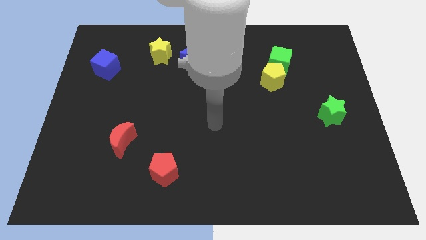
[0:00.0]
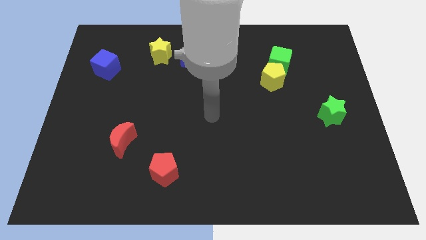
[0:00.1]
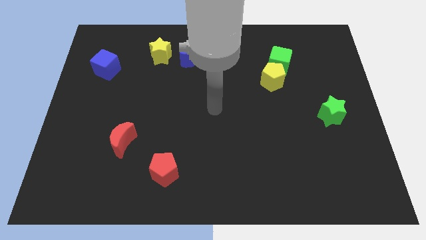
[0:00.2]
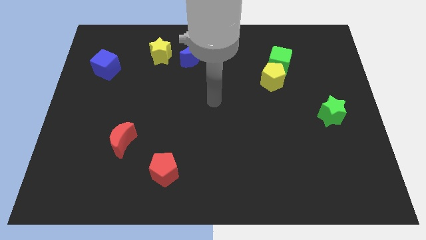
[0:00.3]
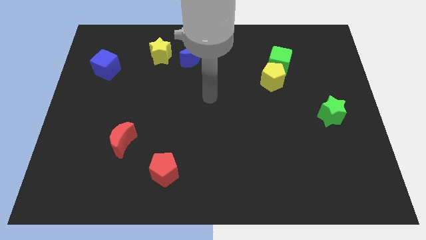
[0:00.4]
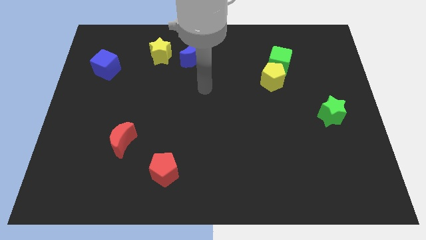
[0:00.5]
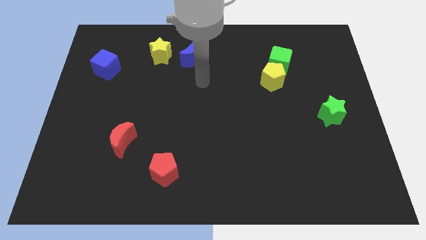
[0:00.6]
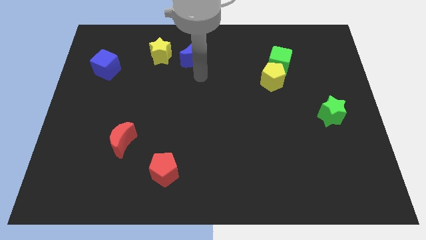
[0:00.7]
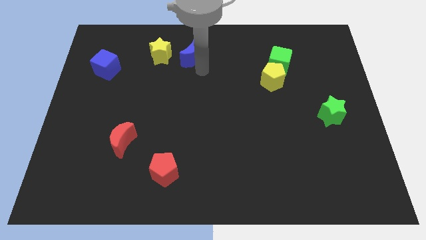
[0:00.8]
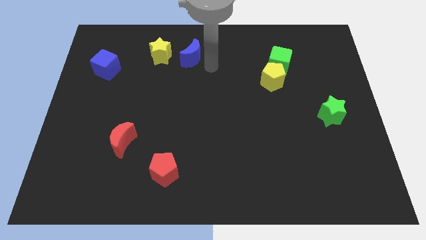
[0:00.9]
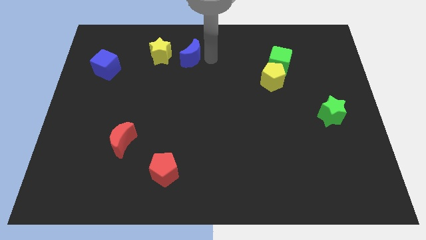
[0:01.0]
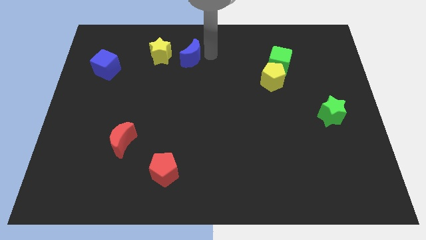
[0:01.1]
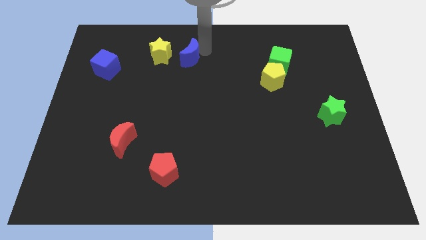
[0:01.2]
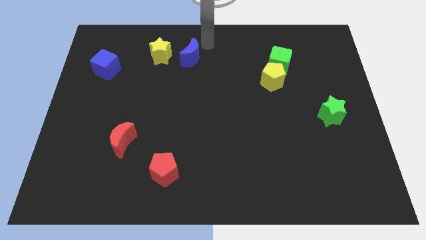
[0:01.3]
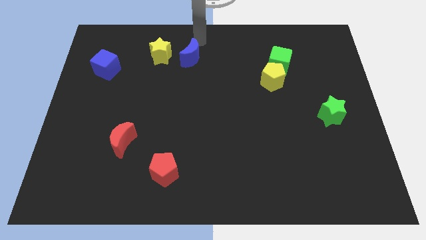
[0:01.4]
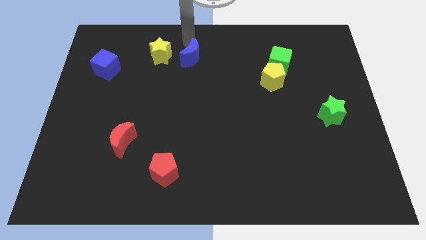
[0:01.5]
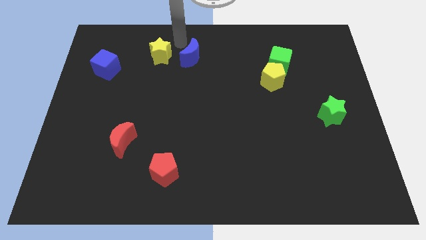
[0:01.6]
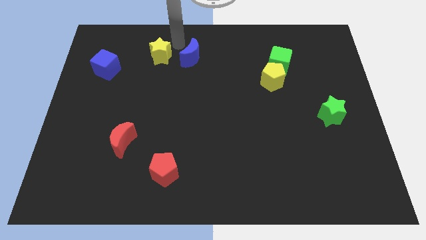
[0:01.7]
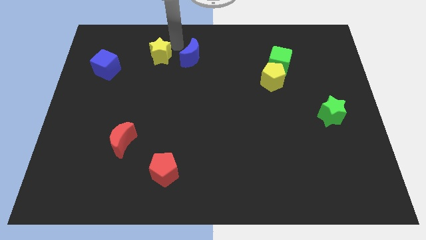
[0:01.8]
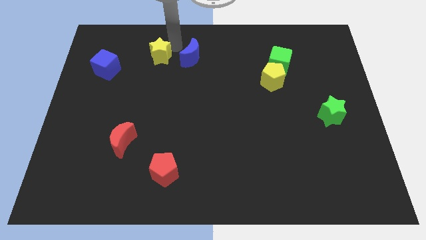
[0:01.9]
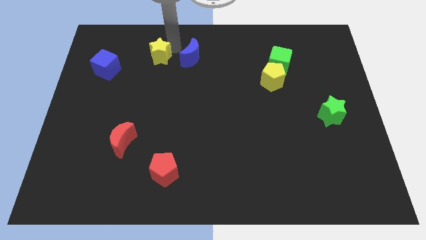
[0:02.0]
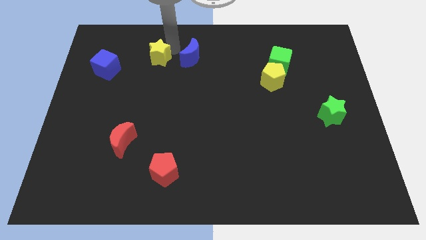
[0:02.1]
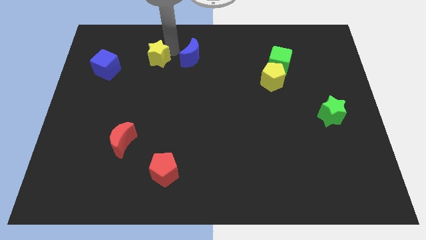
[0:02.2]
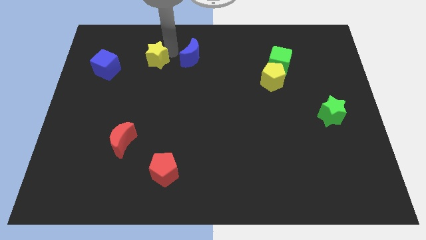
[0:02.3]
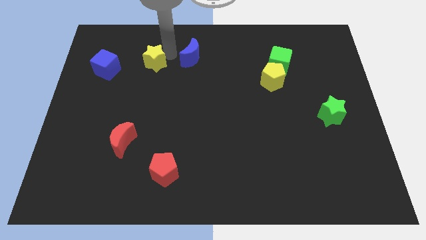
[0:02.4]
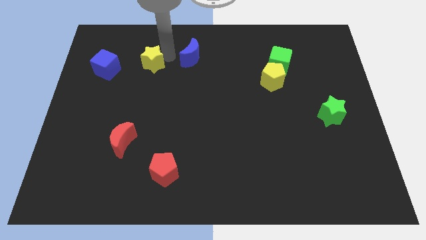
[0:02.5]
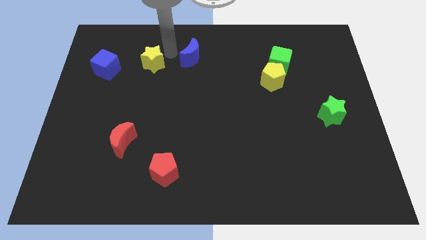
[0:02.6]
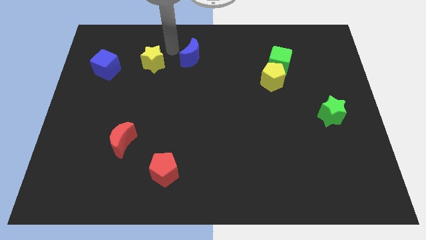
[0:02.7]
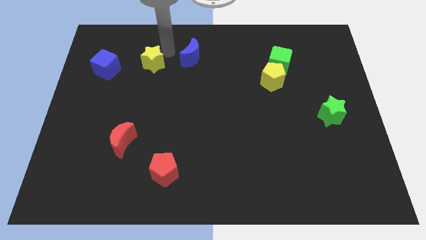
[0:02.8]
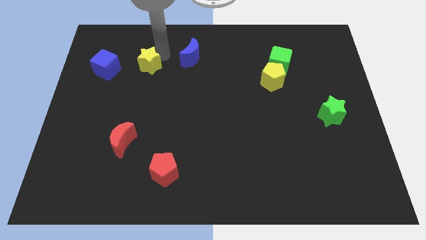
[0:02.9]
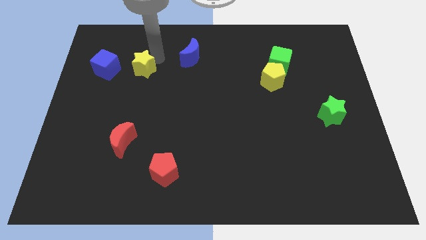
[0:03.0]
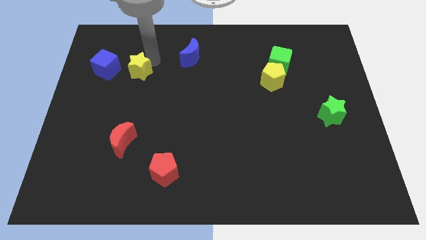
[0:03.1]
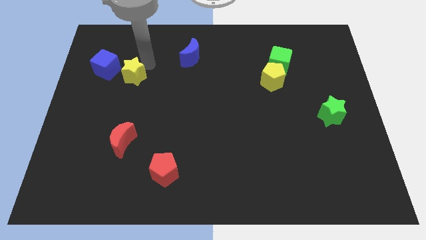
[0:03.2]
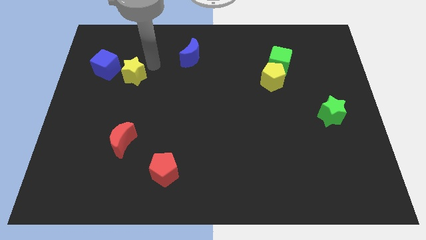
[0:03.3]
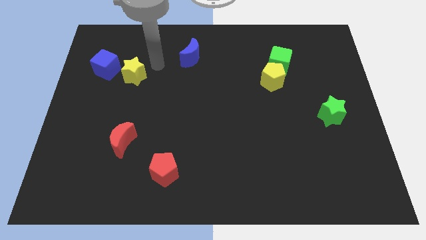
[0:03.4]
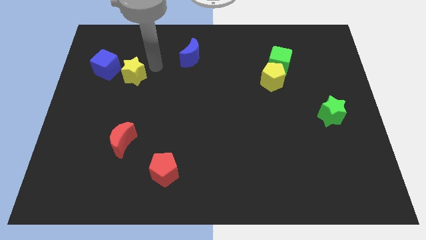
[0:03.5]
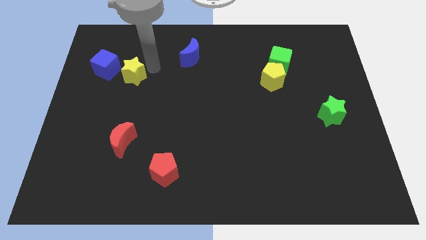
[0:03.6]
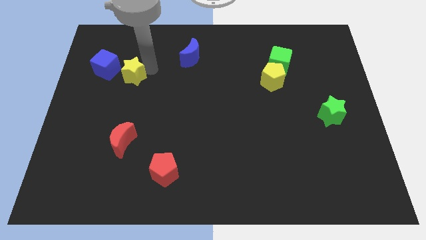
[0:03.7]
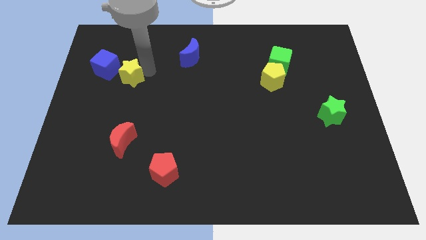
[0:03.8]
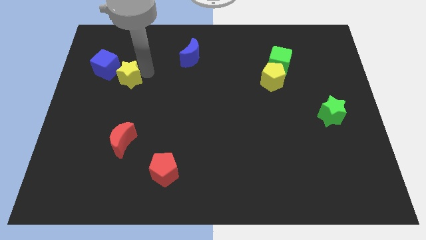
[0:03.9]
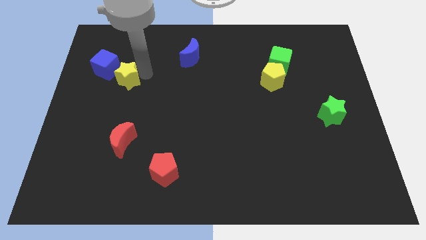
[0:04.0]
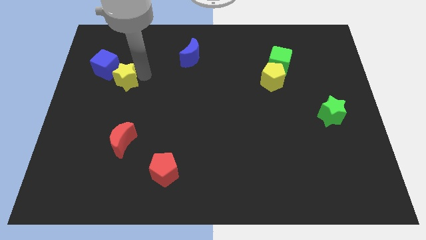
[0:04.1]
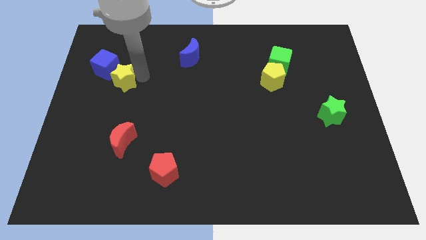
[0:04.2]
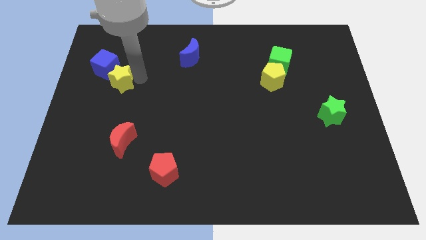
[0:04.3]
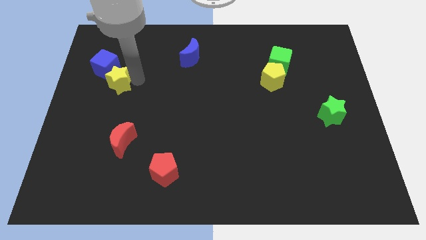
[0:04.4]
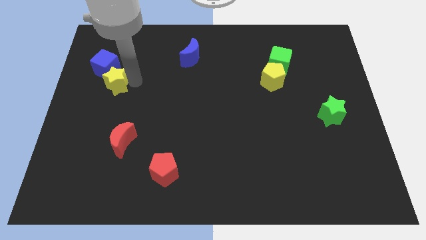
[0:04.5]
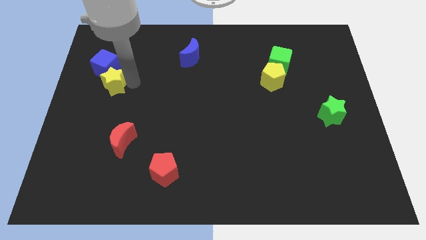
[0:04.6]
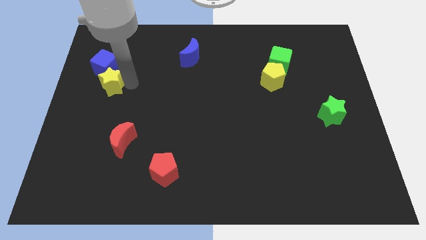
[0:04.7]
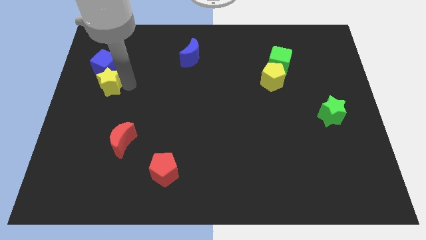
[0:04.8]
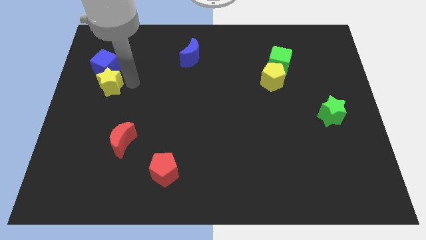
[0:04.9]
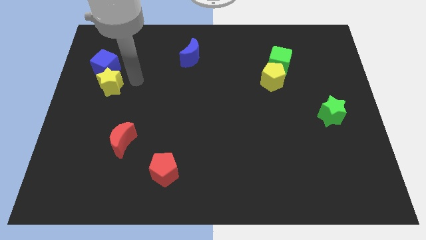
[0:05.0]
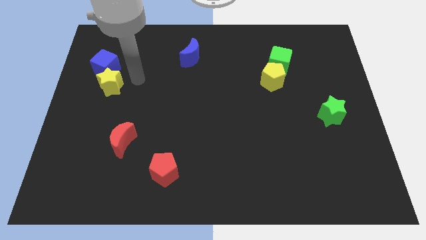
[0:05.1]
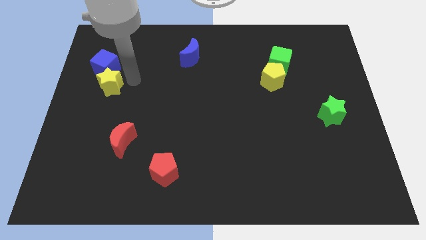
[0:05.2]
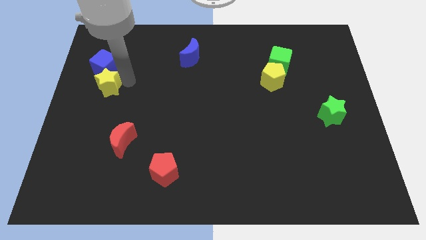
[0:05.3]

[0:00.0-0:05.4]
move the yellow star to the center left

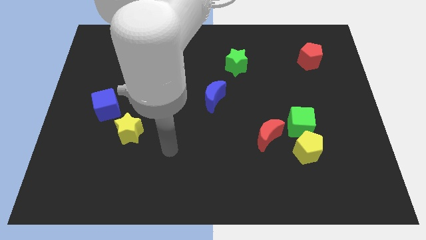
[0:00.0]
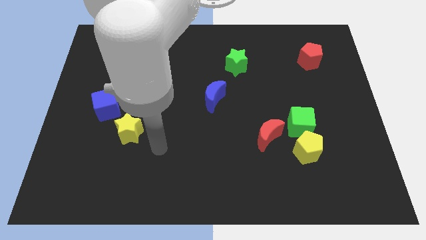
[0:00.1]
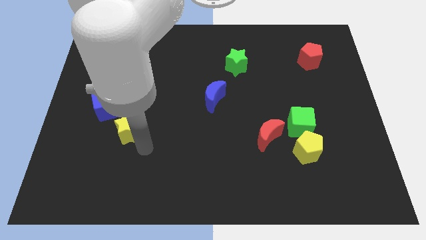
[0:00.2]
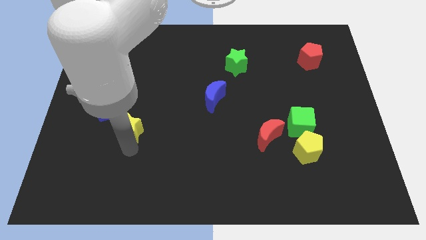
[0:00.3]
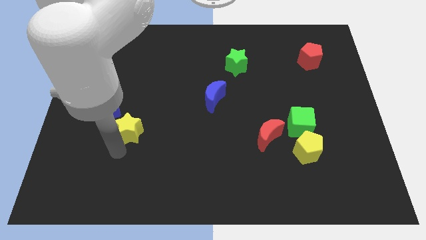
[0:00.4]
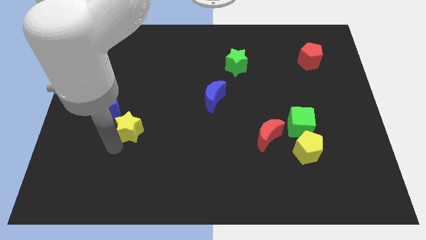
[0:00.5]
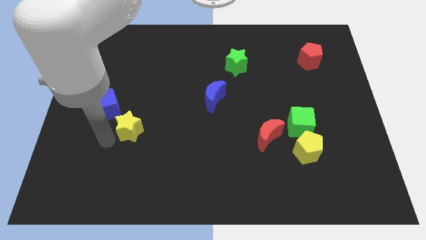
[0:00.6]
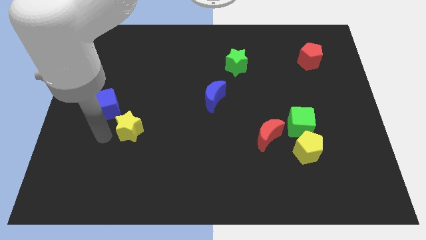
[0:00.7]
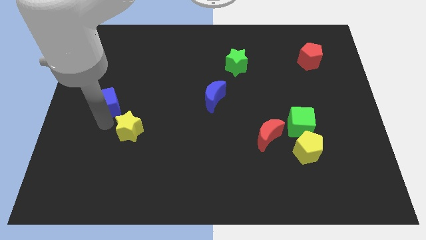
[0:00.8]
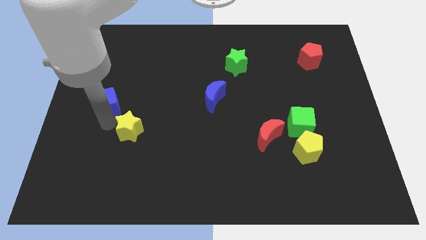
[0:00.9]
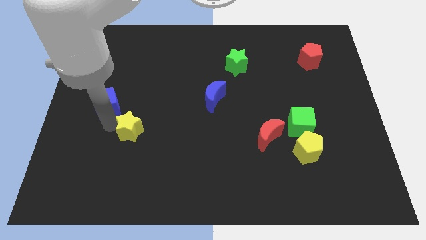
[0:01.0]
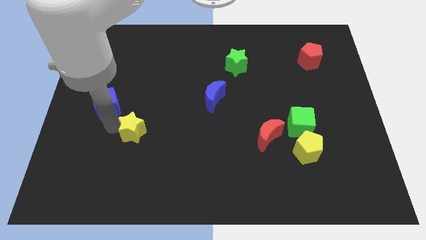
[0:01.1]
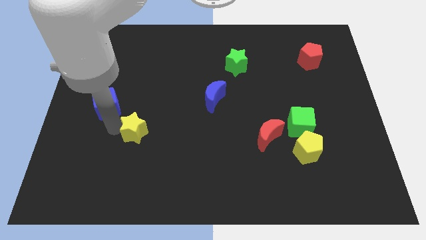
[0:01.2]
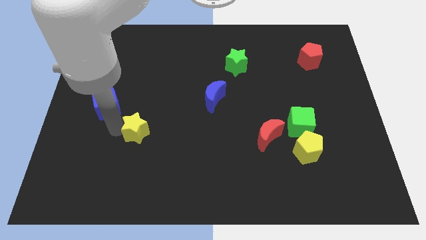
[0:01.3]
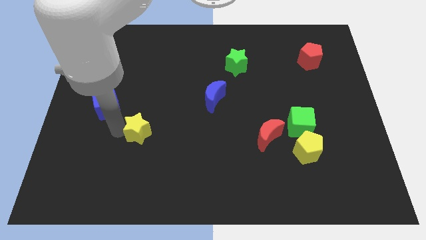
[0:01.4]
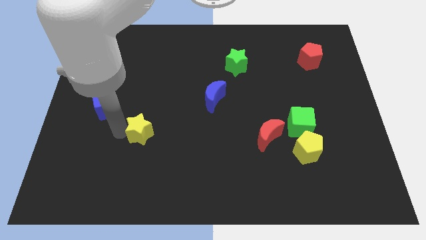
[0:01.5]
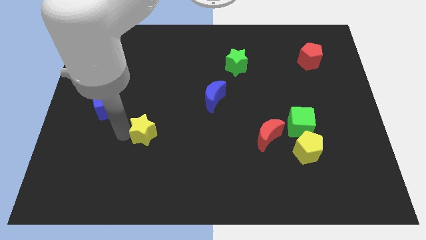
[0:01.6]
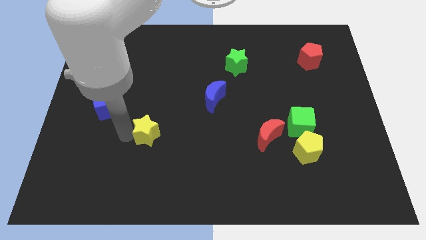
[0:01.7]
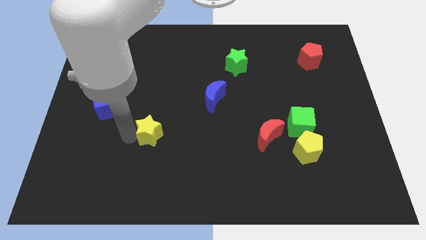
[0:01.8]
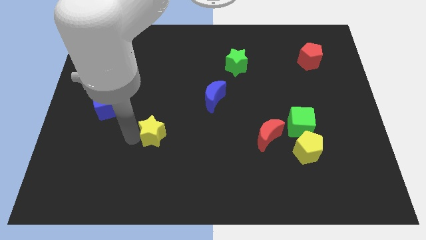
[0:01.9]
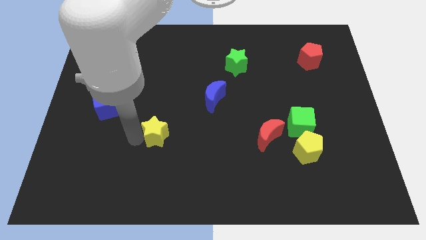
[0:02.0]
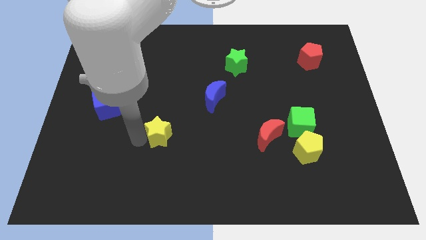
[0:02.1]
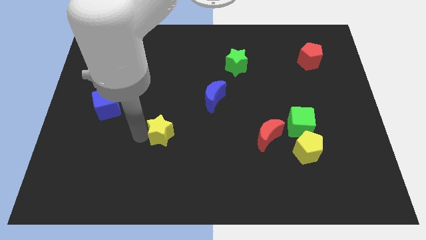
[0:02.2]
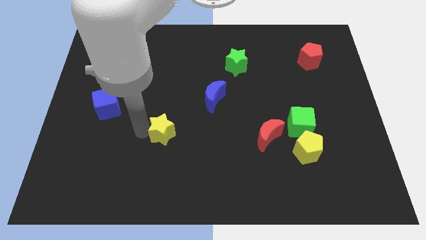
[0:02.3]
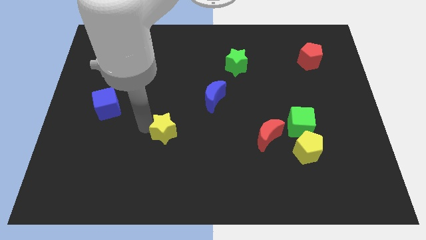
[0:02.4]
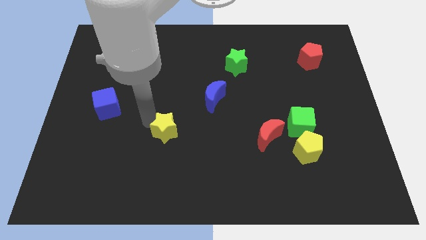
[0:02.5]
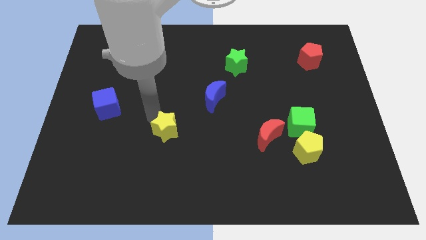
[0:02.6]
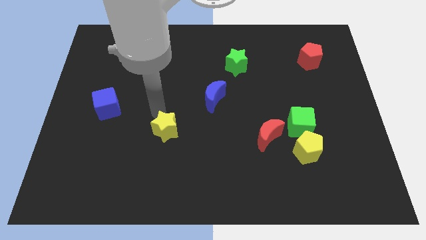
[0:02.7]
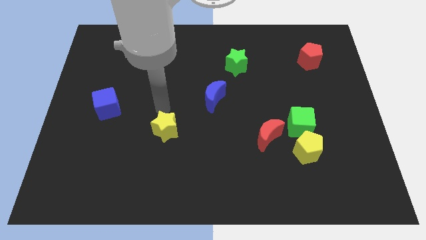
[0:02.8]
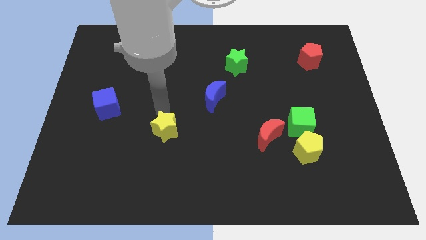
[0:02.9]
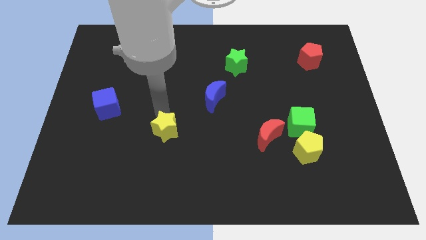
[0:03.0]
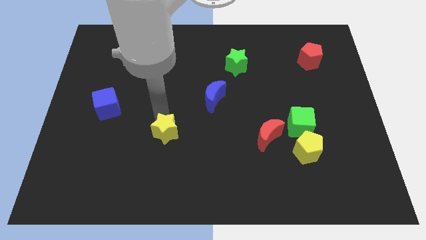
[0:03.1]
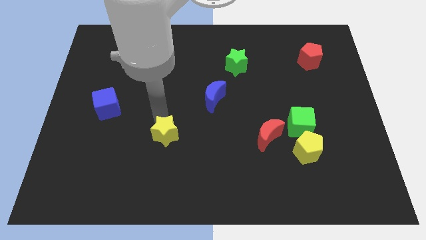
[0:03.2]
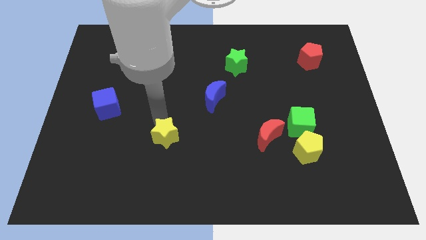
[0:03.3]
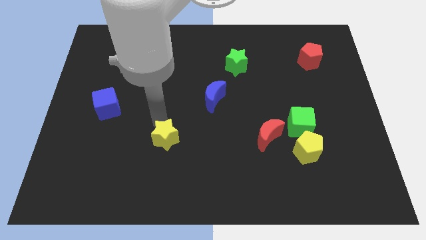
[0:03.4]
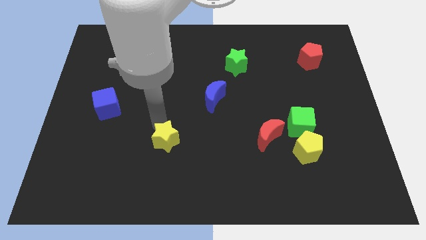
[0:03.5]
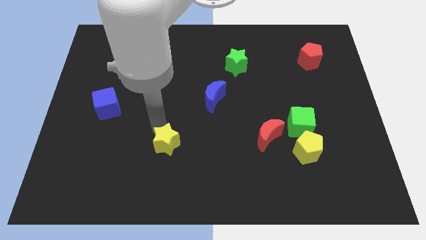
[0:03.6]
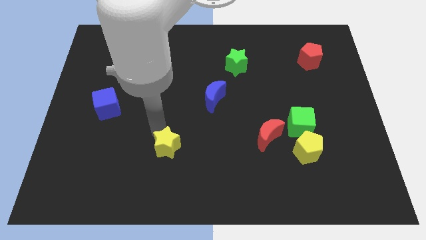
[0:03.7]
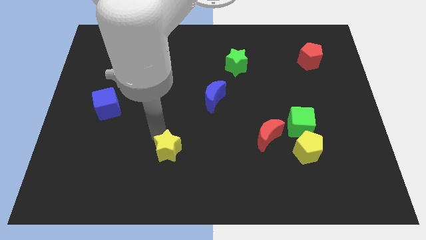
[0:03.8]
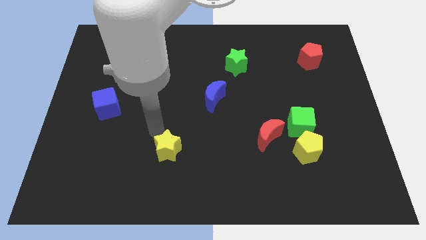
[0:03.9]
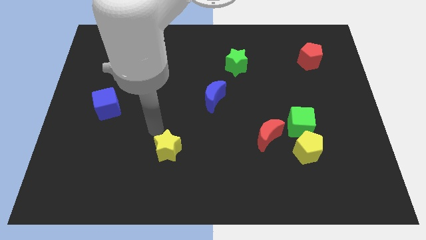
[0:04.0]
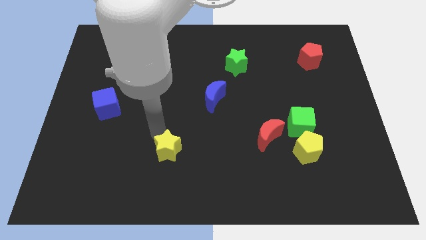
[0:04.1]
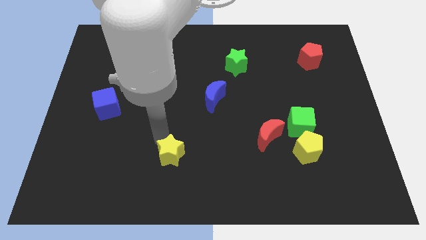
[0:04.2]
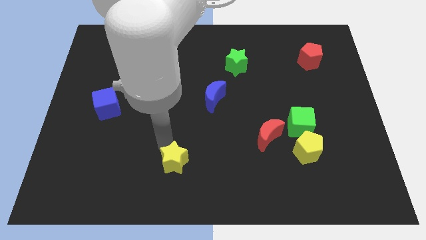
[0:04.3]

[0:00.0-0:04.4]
put the yellow star to the bottom
